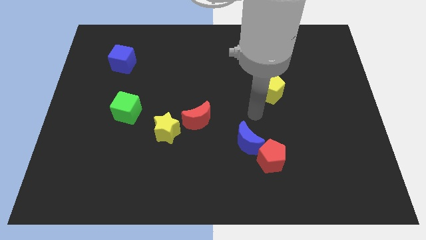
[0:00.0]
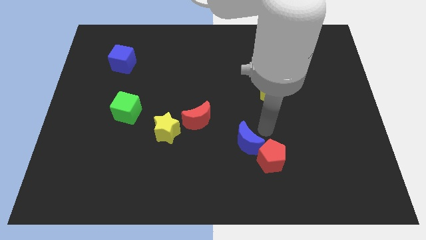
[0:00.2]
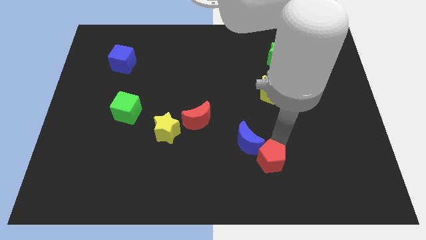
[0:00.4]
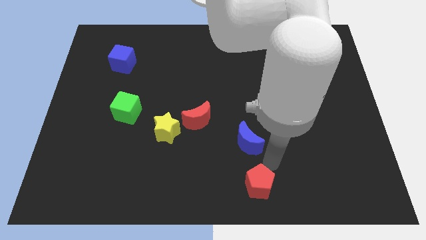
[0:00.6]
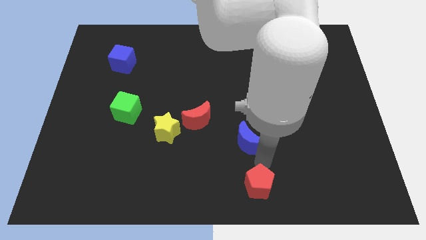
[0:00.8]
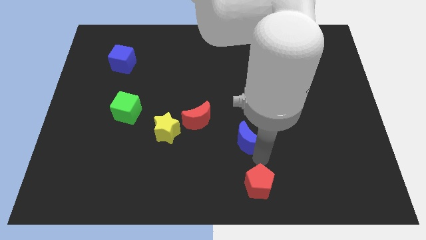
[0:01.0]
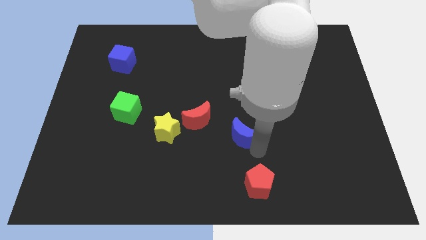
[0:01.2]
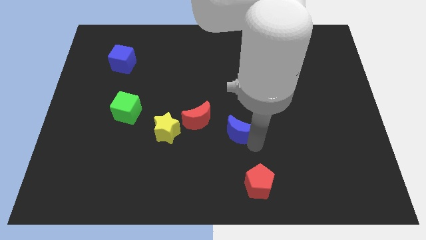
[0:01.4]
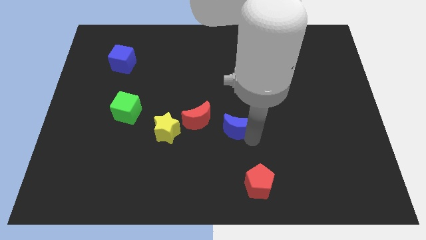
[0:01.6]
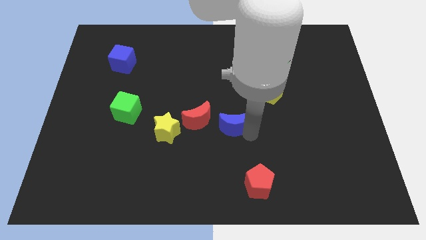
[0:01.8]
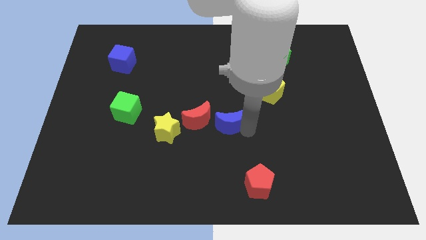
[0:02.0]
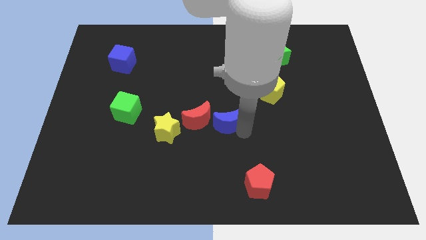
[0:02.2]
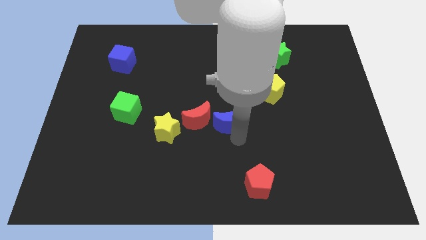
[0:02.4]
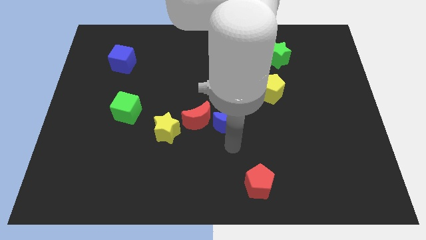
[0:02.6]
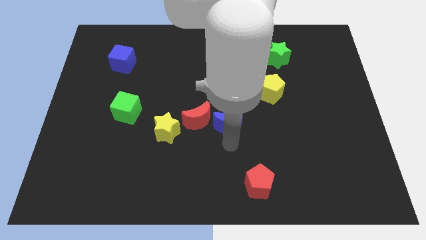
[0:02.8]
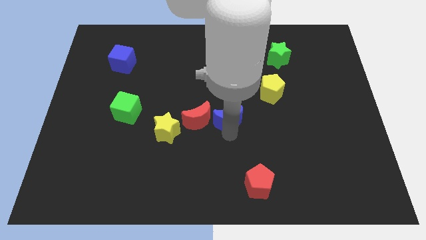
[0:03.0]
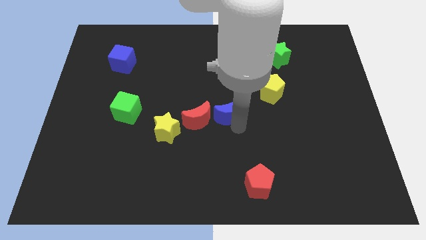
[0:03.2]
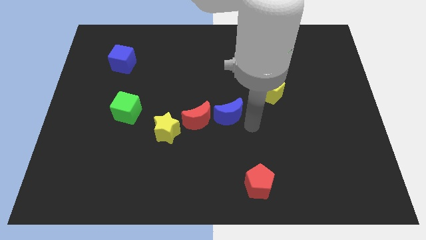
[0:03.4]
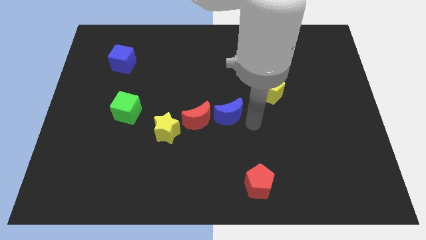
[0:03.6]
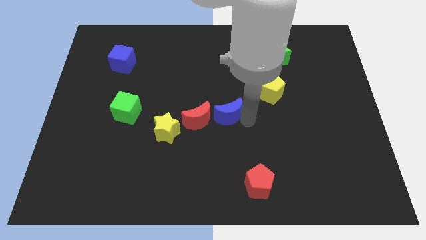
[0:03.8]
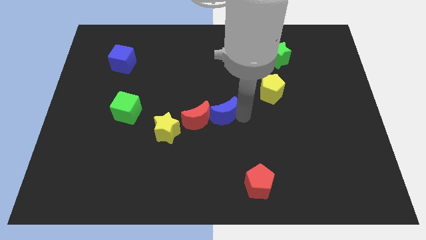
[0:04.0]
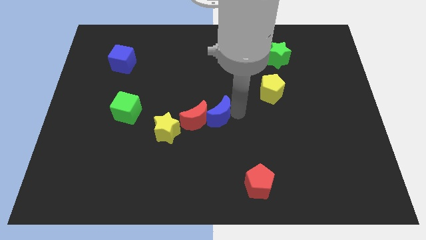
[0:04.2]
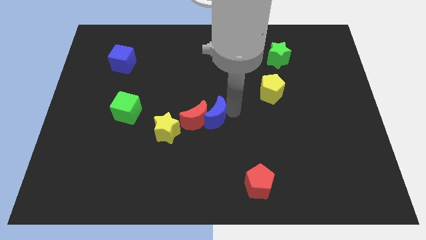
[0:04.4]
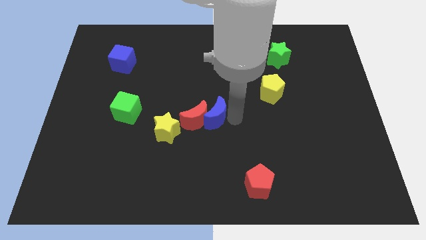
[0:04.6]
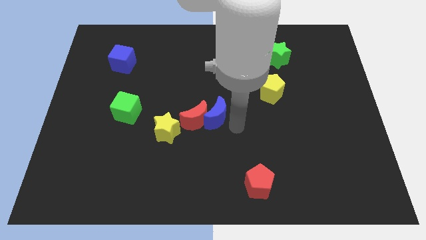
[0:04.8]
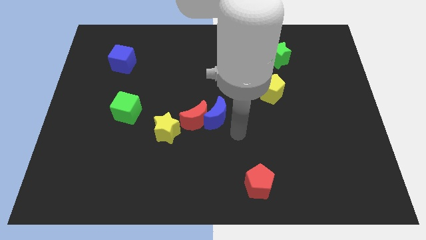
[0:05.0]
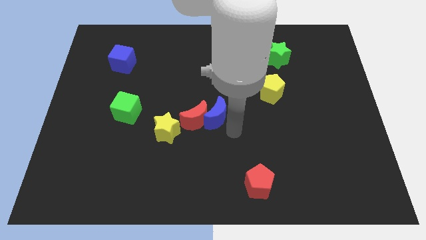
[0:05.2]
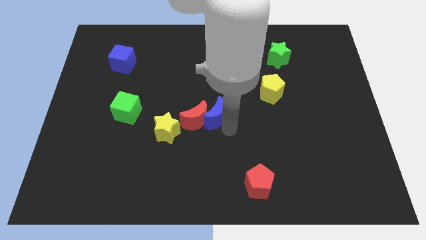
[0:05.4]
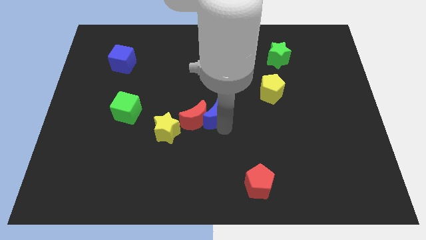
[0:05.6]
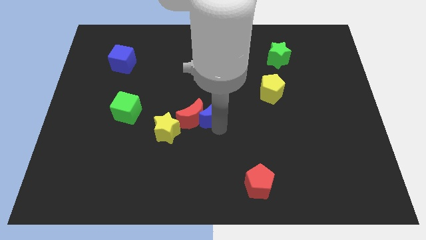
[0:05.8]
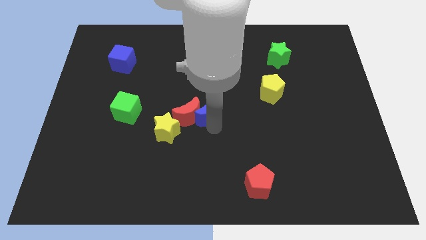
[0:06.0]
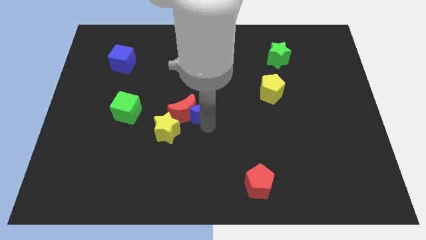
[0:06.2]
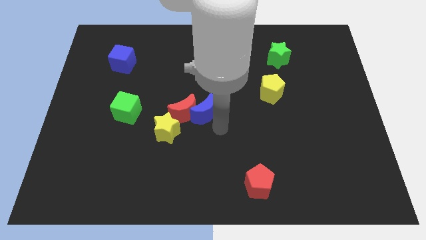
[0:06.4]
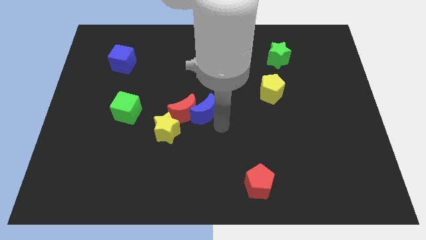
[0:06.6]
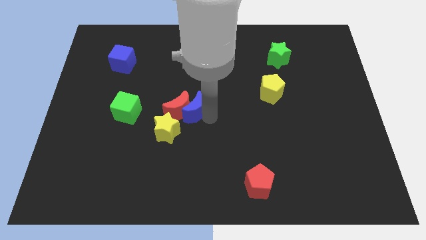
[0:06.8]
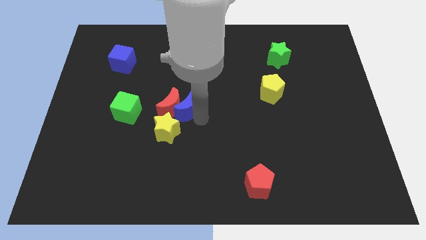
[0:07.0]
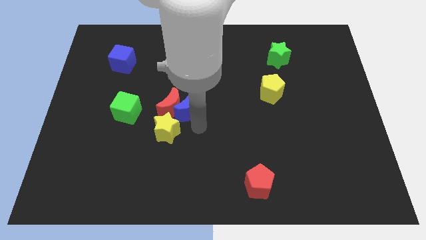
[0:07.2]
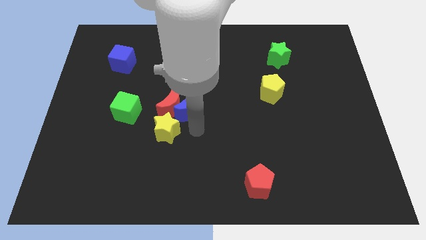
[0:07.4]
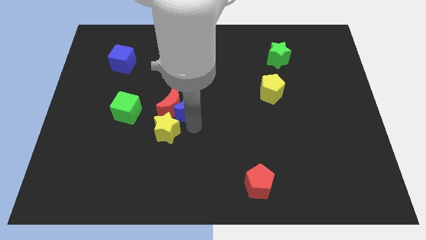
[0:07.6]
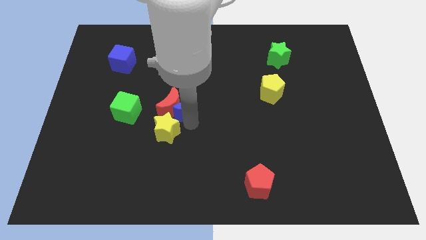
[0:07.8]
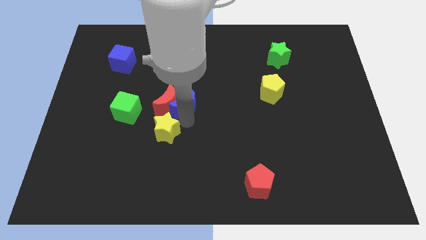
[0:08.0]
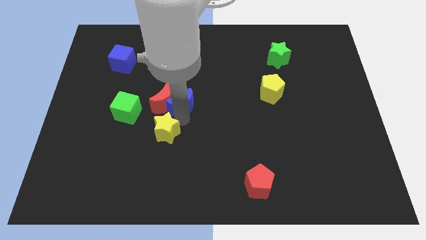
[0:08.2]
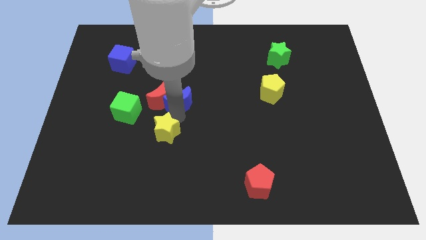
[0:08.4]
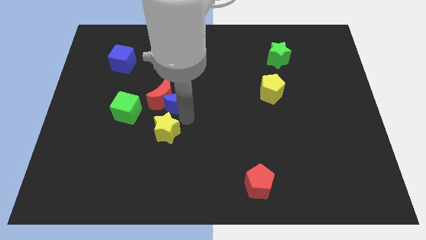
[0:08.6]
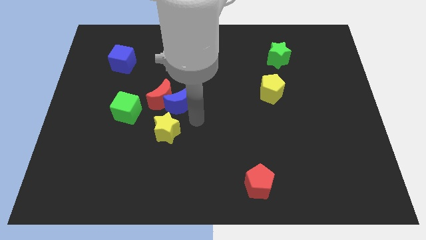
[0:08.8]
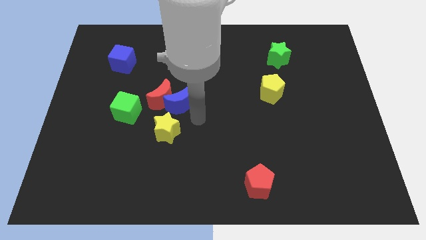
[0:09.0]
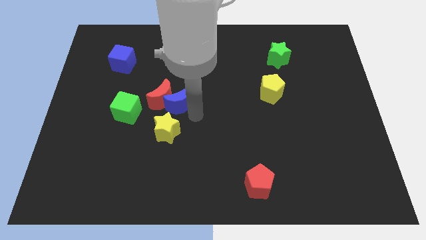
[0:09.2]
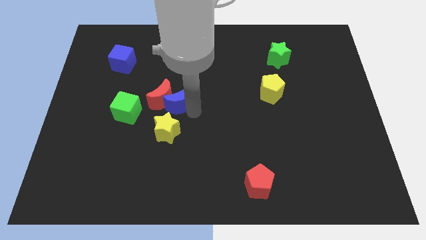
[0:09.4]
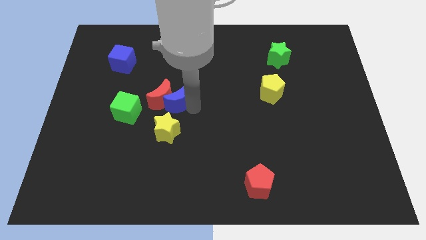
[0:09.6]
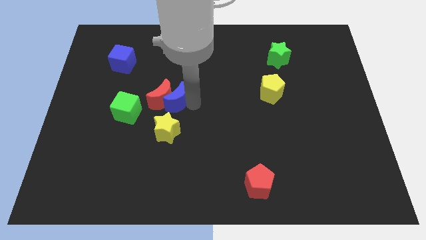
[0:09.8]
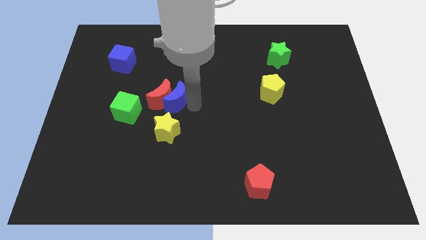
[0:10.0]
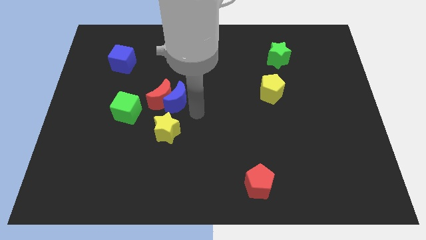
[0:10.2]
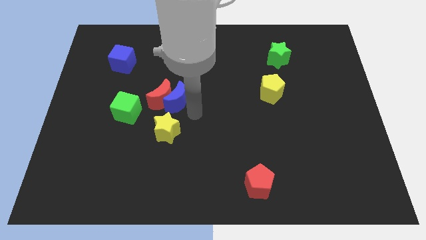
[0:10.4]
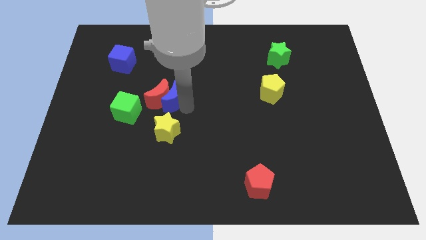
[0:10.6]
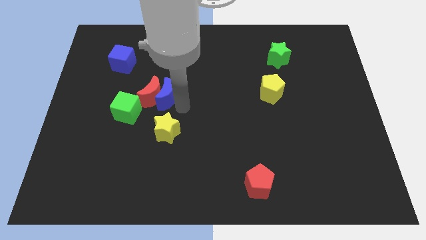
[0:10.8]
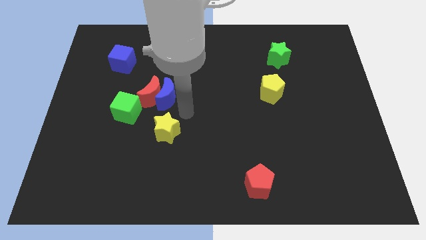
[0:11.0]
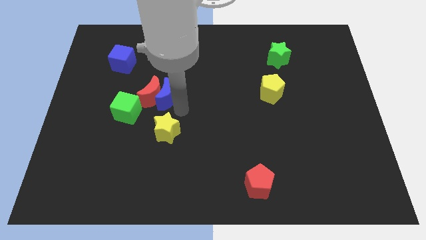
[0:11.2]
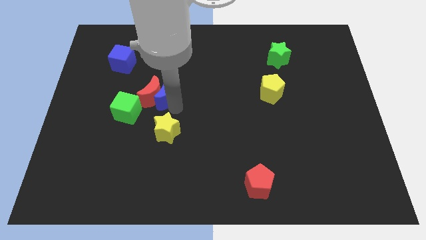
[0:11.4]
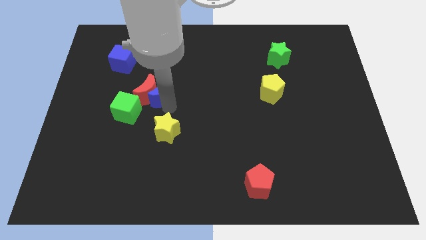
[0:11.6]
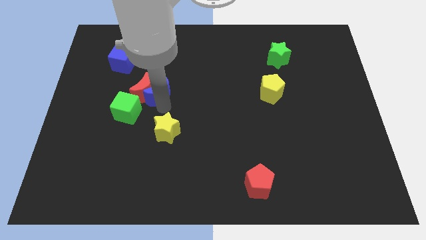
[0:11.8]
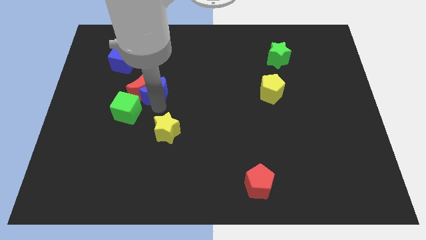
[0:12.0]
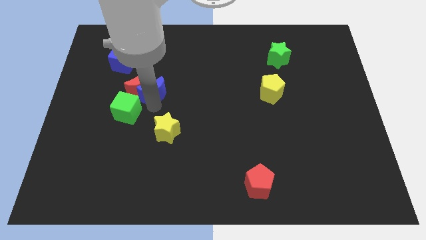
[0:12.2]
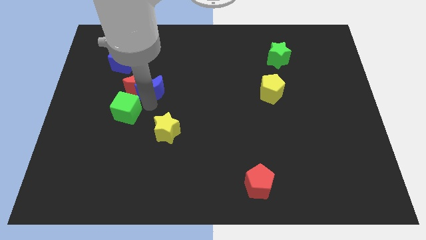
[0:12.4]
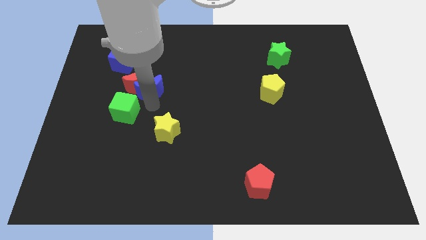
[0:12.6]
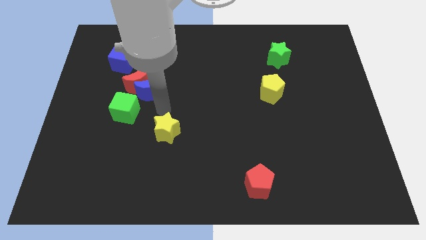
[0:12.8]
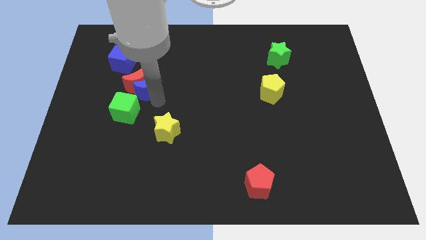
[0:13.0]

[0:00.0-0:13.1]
slide the blue moon diagonally down and to the right of the blue cube

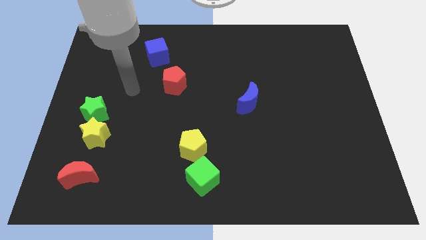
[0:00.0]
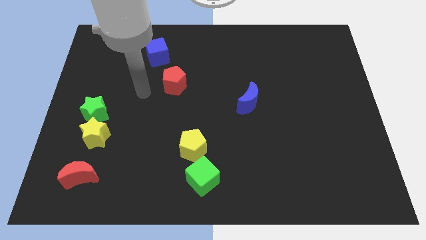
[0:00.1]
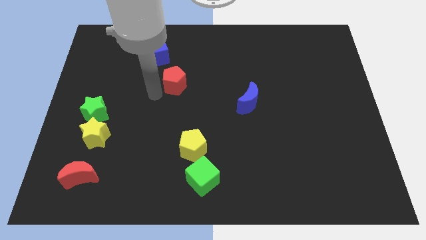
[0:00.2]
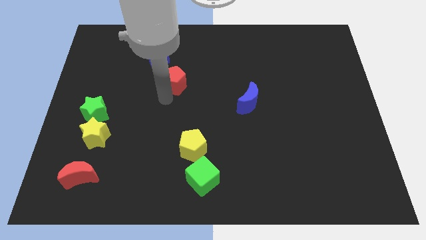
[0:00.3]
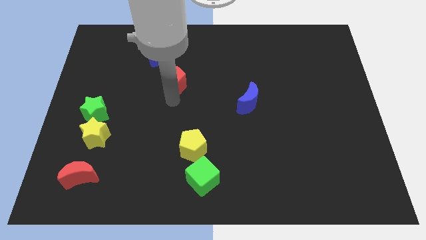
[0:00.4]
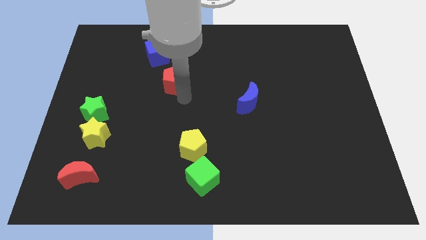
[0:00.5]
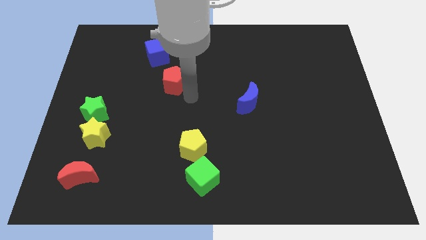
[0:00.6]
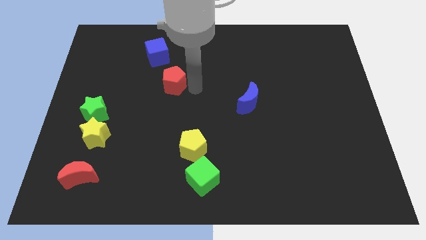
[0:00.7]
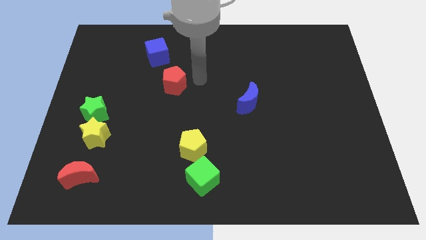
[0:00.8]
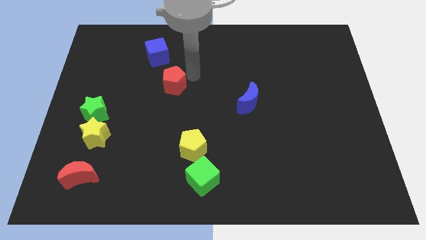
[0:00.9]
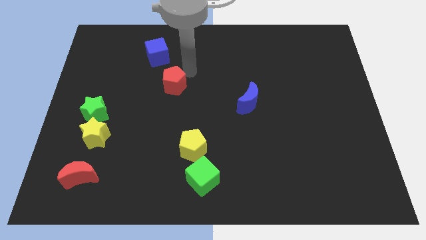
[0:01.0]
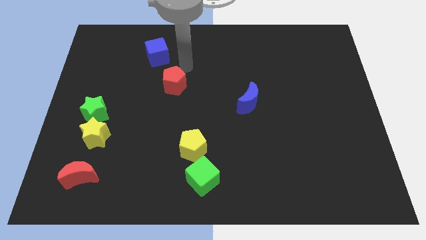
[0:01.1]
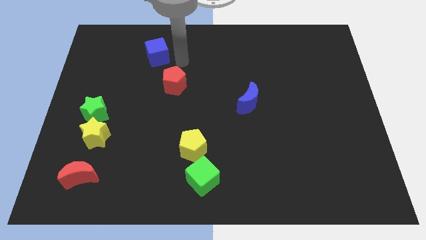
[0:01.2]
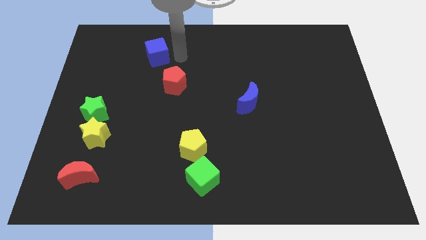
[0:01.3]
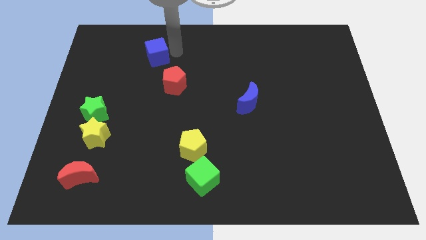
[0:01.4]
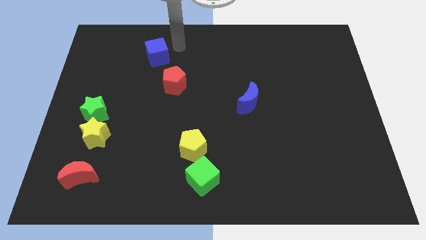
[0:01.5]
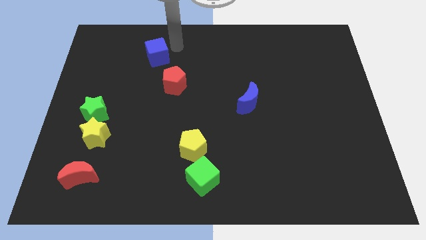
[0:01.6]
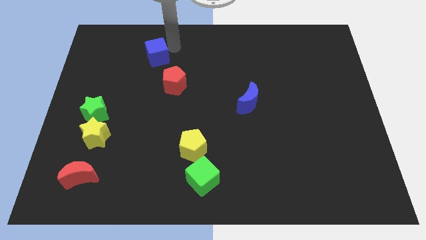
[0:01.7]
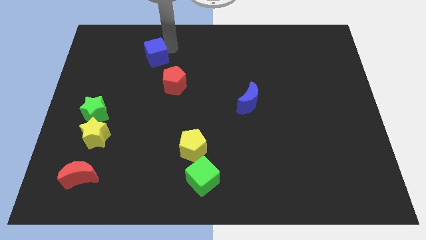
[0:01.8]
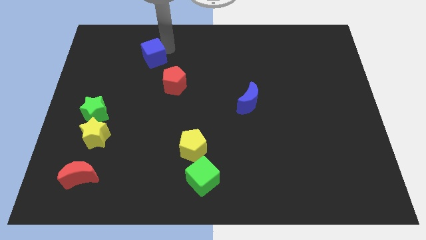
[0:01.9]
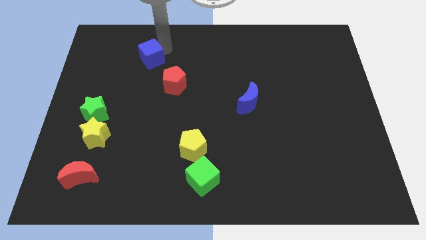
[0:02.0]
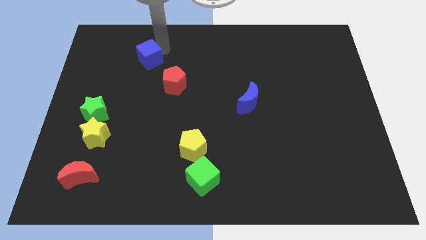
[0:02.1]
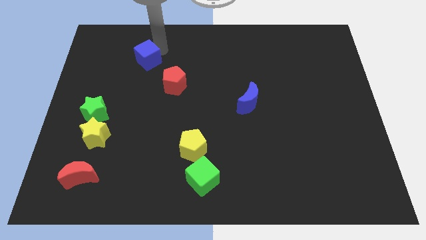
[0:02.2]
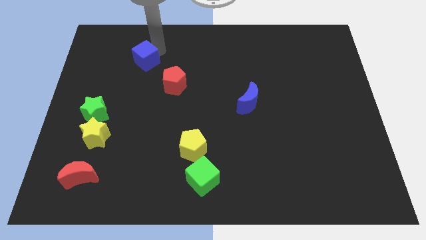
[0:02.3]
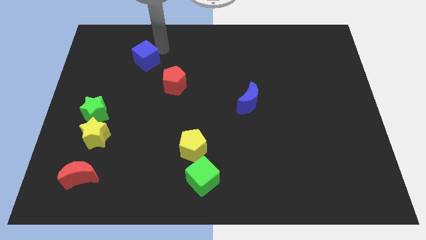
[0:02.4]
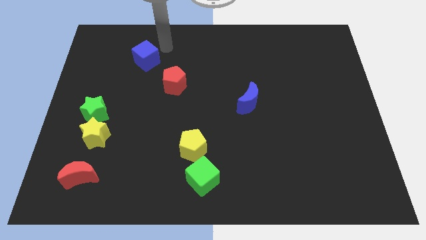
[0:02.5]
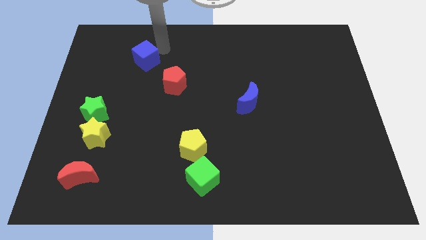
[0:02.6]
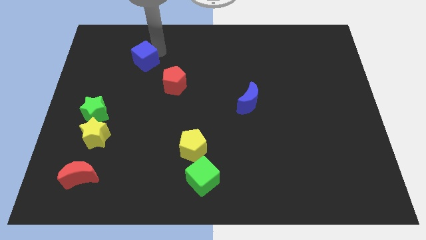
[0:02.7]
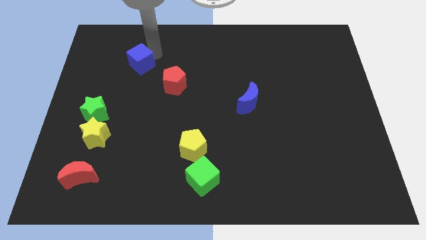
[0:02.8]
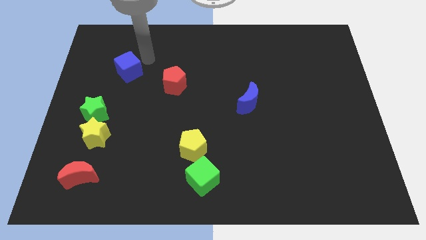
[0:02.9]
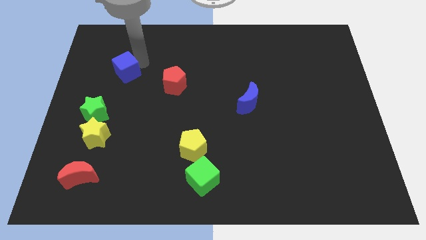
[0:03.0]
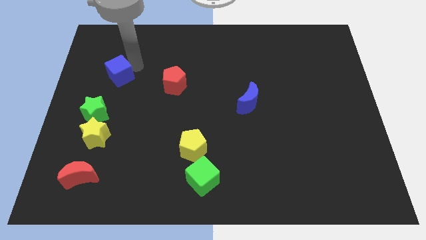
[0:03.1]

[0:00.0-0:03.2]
move the blue cube to the top of the green star
